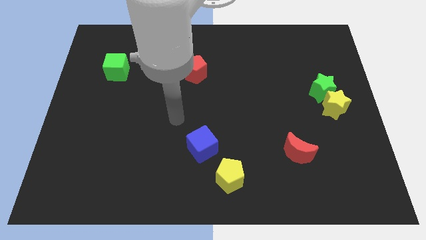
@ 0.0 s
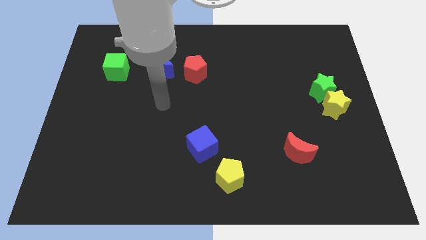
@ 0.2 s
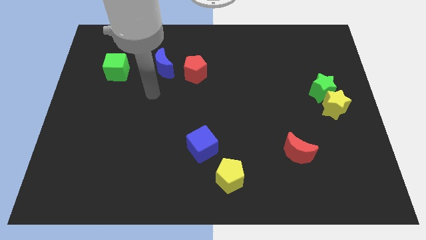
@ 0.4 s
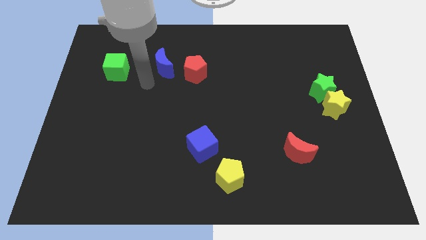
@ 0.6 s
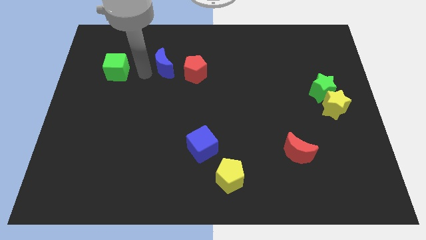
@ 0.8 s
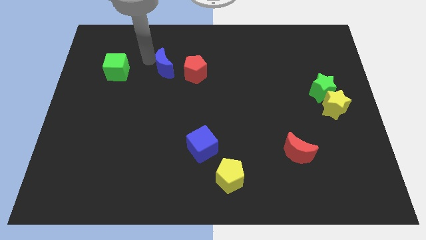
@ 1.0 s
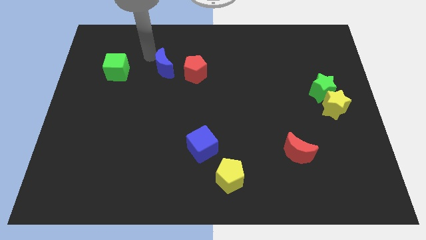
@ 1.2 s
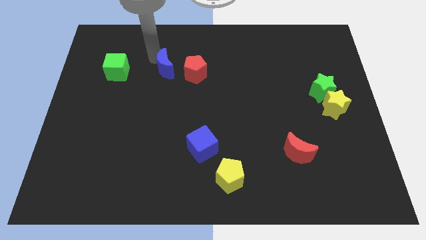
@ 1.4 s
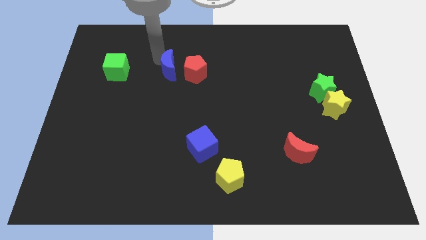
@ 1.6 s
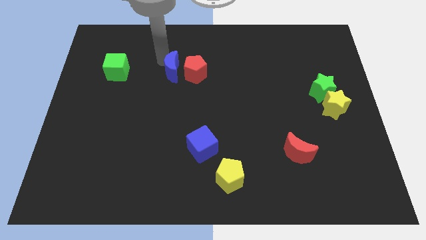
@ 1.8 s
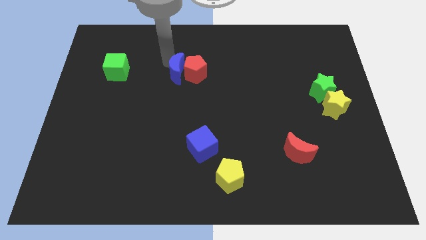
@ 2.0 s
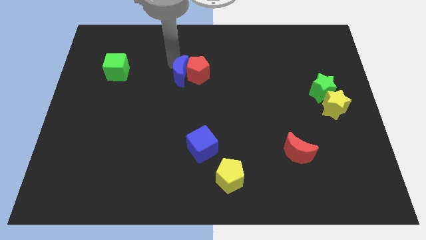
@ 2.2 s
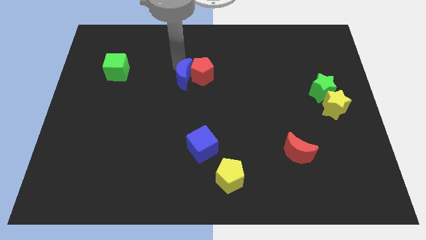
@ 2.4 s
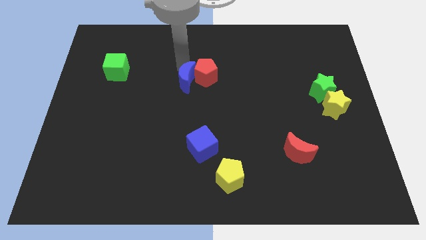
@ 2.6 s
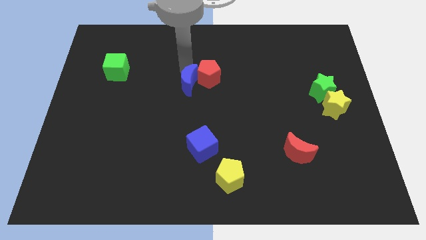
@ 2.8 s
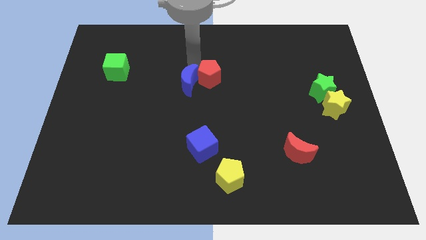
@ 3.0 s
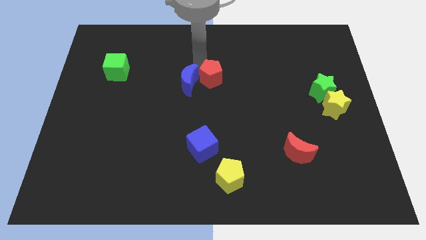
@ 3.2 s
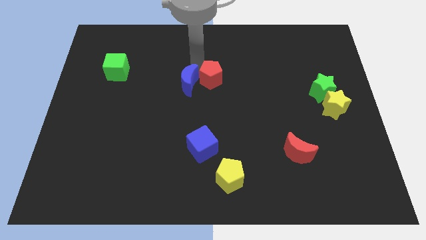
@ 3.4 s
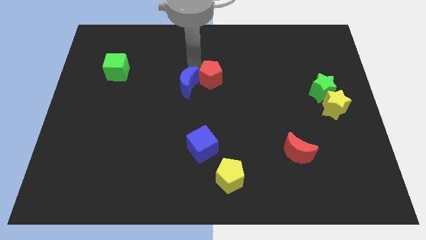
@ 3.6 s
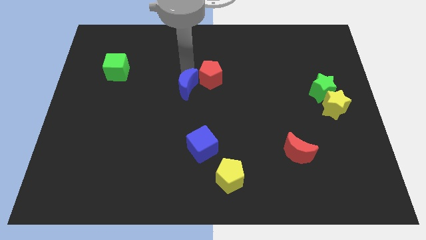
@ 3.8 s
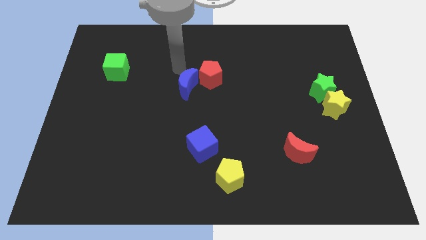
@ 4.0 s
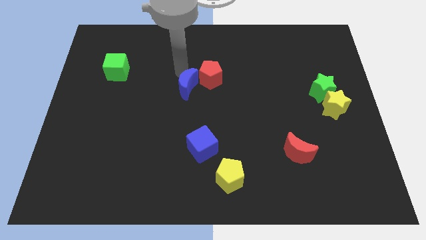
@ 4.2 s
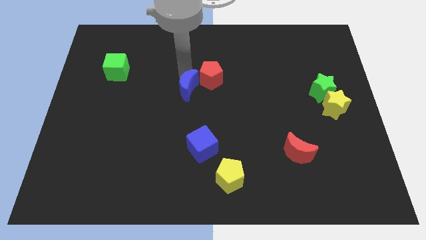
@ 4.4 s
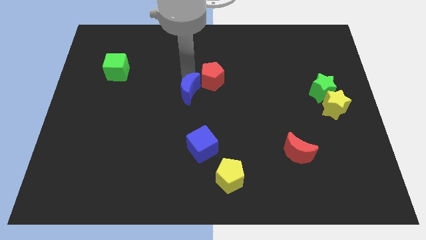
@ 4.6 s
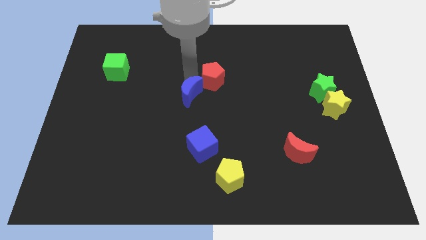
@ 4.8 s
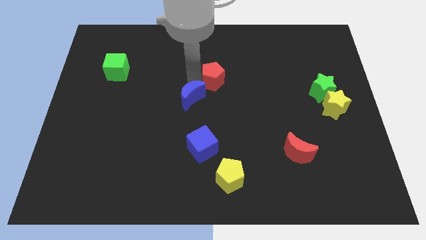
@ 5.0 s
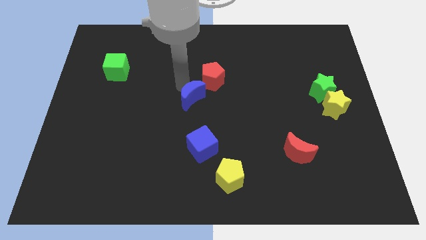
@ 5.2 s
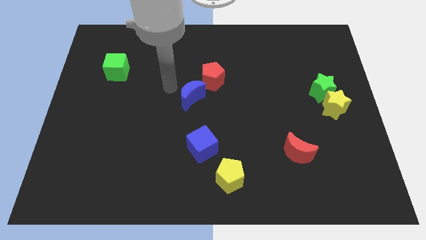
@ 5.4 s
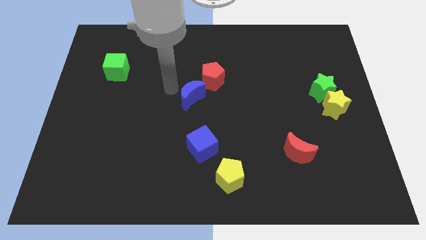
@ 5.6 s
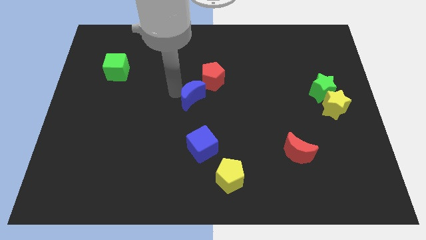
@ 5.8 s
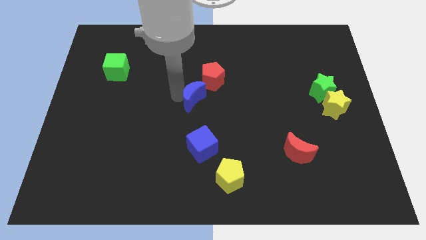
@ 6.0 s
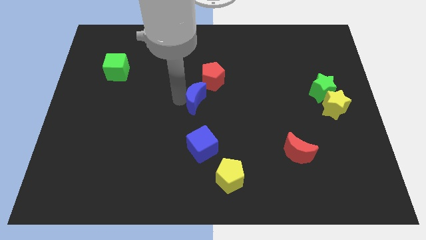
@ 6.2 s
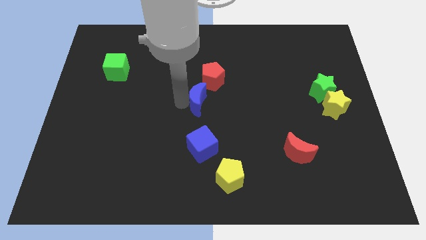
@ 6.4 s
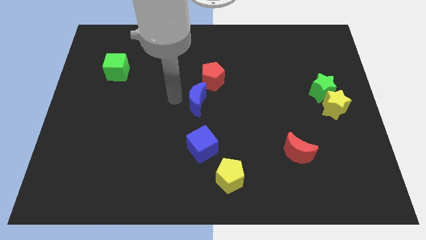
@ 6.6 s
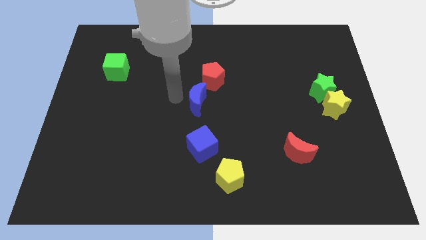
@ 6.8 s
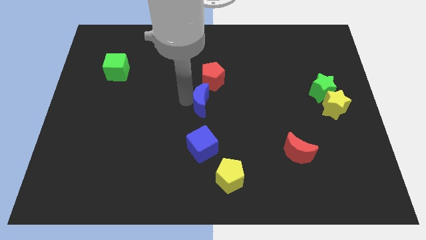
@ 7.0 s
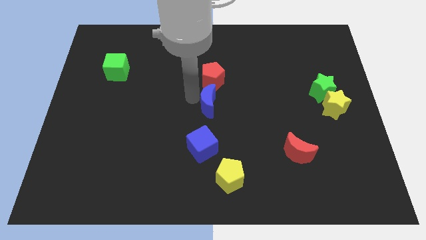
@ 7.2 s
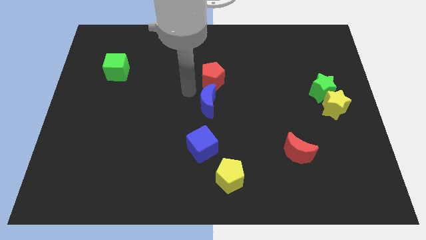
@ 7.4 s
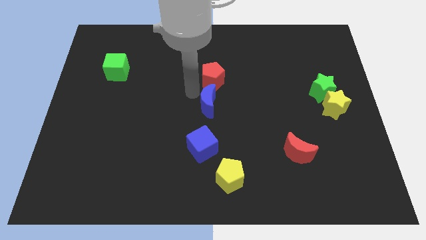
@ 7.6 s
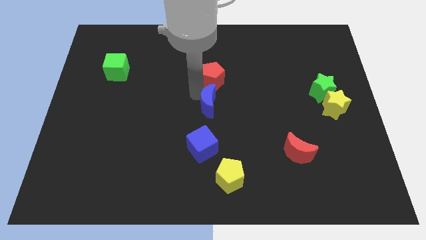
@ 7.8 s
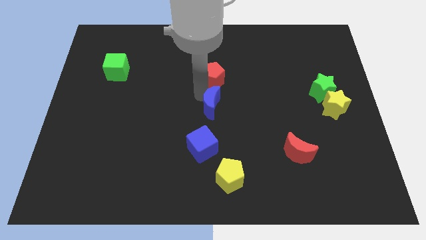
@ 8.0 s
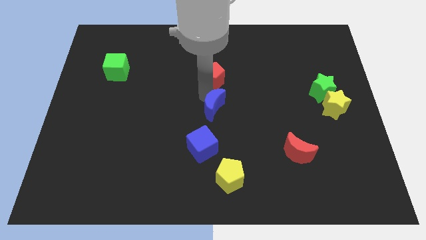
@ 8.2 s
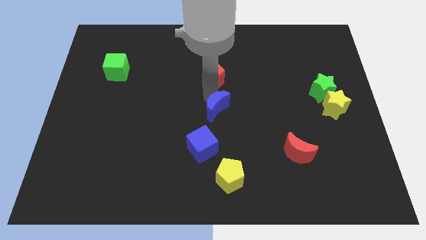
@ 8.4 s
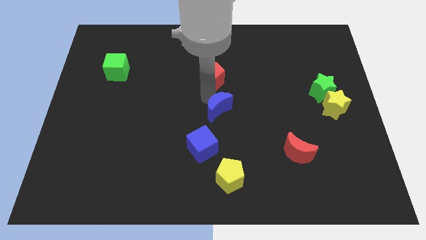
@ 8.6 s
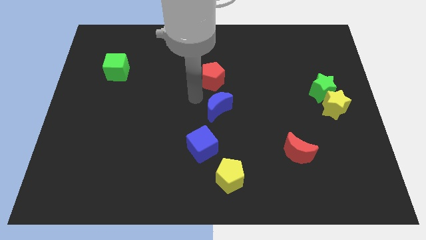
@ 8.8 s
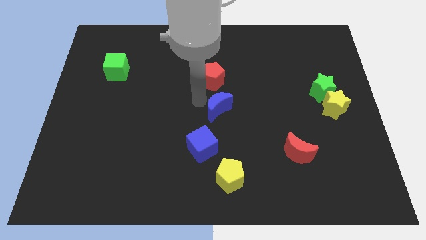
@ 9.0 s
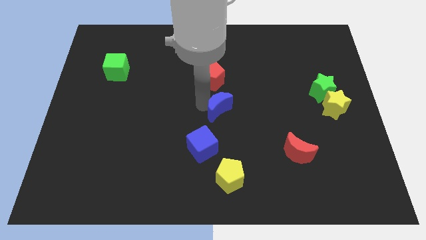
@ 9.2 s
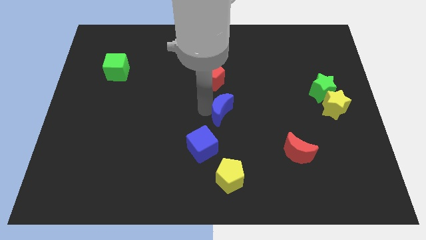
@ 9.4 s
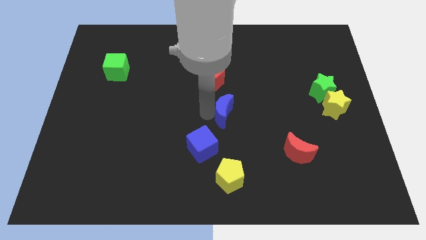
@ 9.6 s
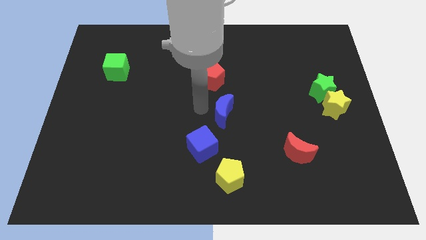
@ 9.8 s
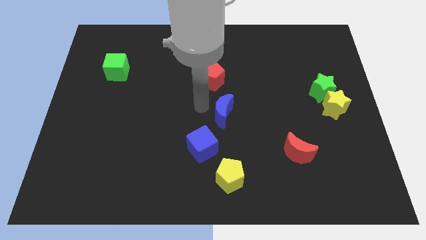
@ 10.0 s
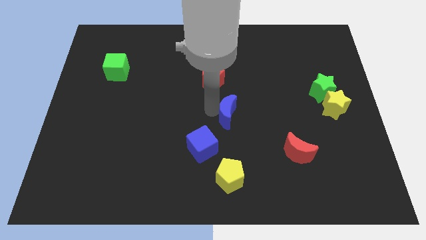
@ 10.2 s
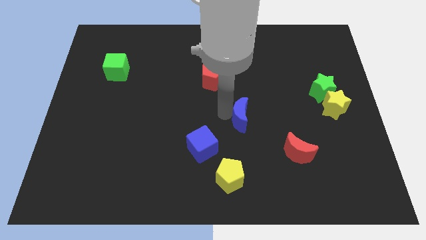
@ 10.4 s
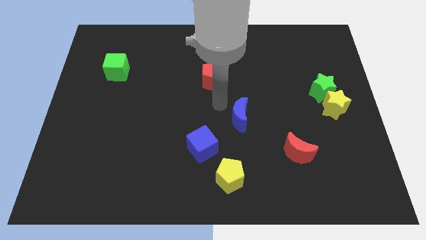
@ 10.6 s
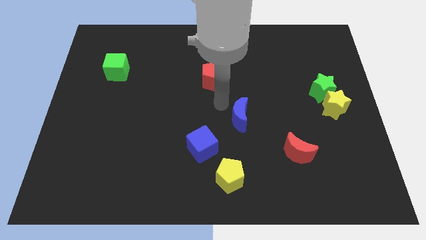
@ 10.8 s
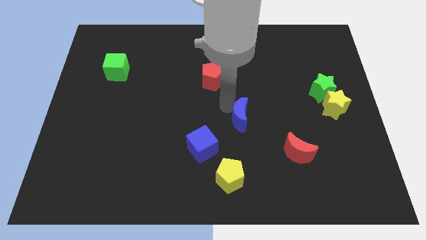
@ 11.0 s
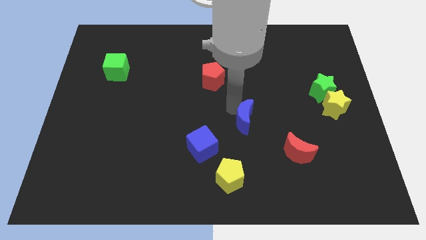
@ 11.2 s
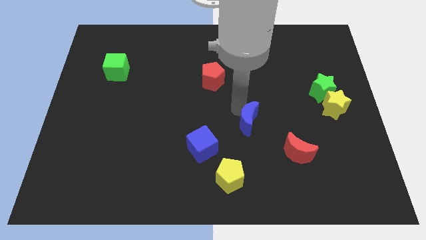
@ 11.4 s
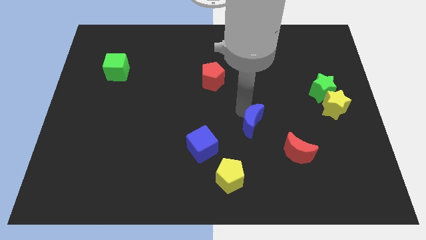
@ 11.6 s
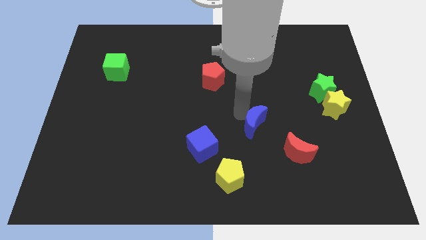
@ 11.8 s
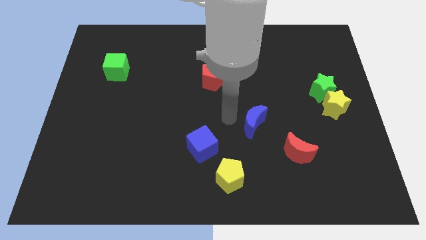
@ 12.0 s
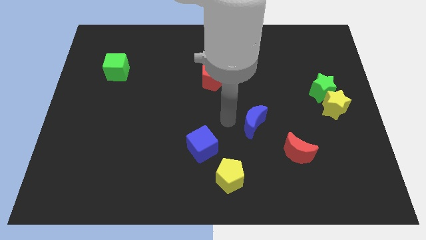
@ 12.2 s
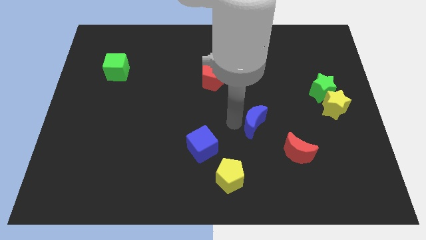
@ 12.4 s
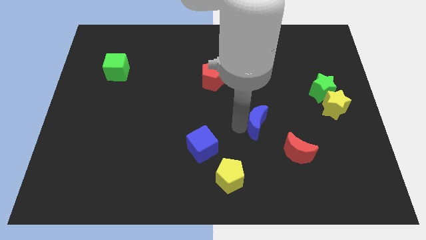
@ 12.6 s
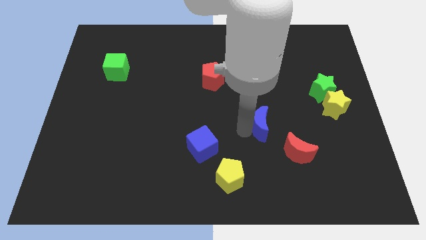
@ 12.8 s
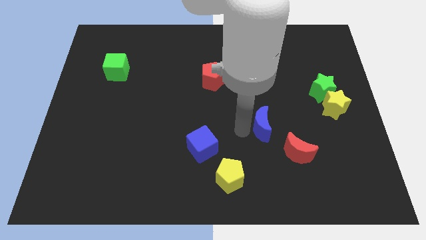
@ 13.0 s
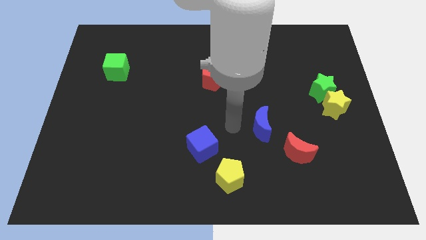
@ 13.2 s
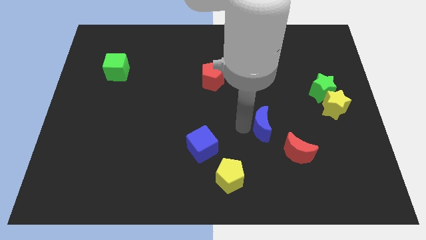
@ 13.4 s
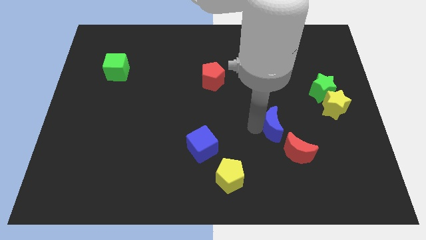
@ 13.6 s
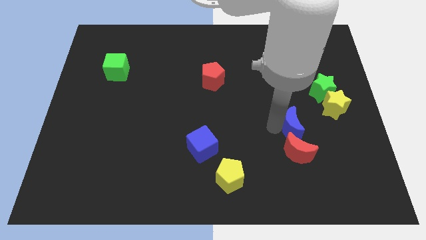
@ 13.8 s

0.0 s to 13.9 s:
put the blue moon to the top right of the red moon
